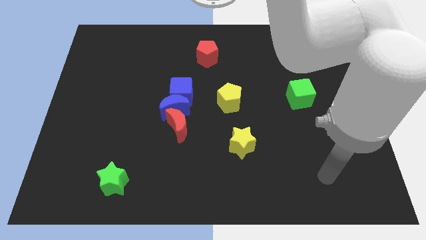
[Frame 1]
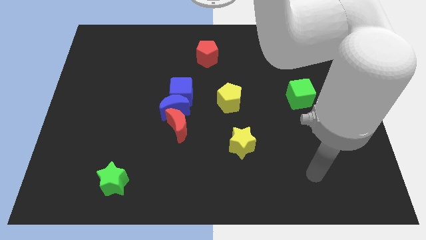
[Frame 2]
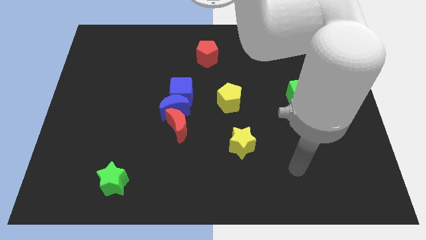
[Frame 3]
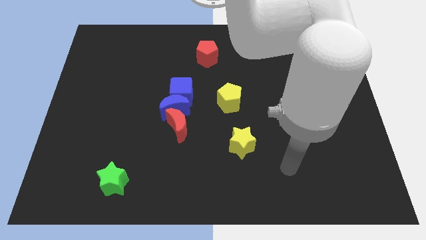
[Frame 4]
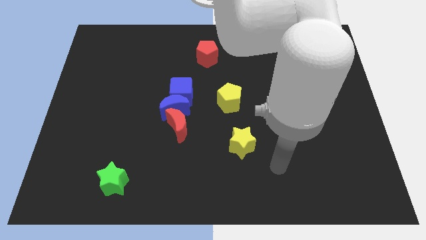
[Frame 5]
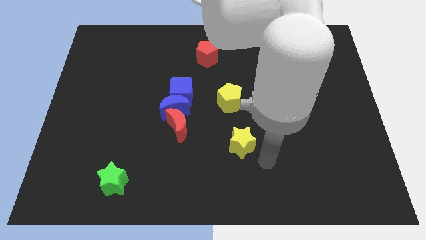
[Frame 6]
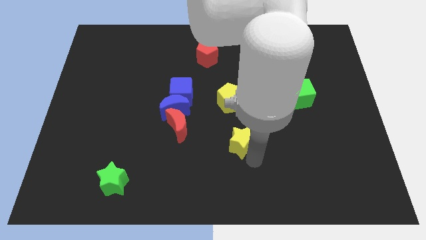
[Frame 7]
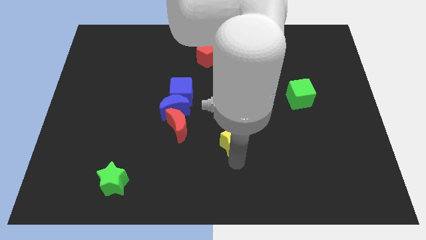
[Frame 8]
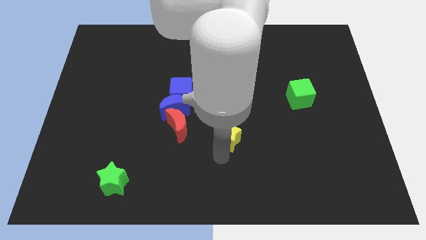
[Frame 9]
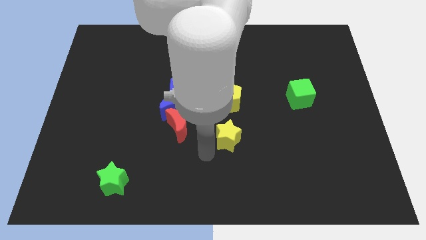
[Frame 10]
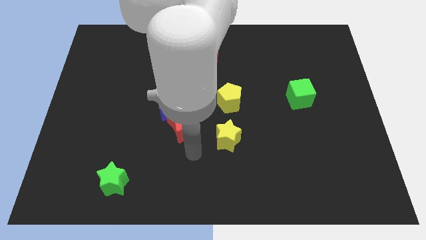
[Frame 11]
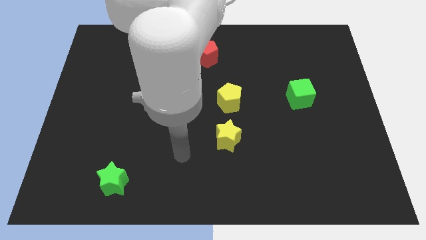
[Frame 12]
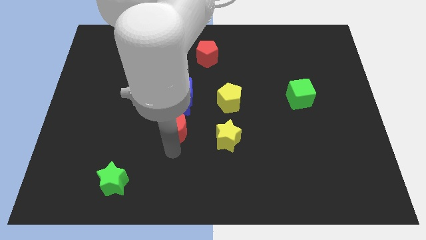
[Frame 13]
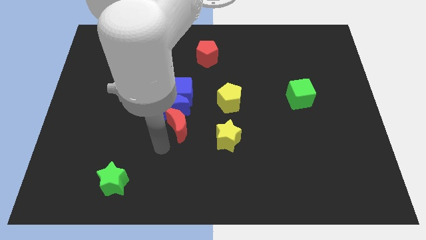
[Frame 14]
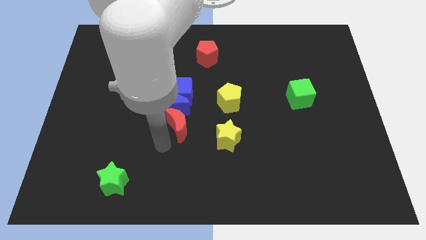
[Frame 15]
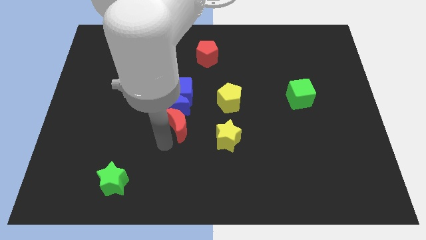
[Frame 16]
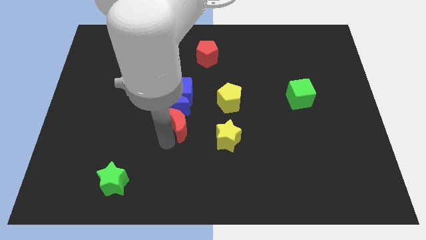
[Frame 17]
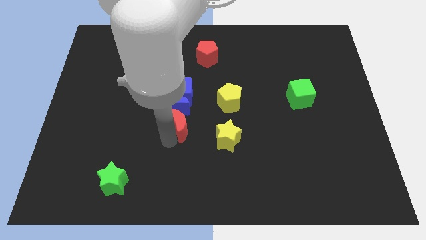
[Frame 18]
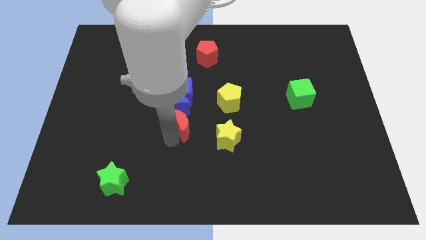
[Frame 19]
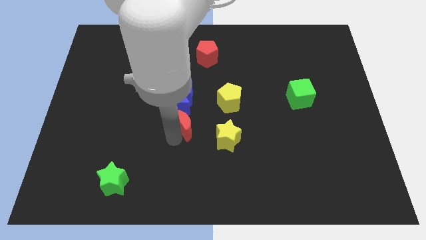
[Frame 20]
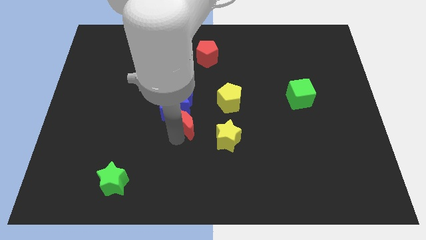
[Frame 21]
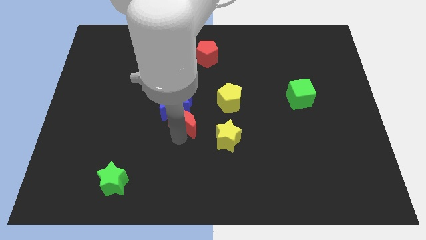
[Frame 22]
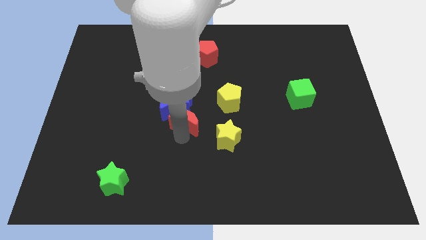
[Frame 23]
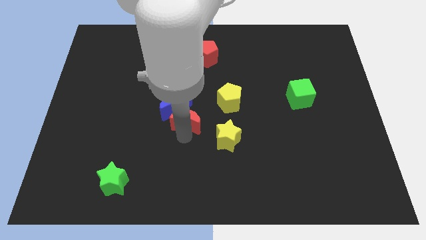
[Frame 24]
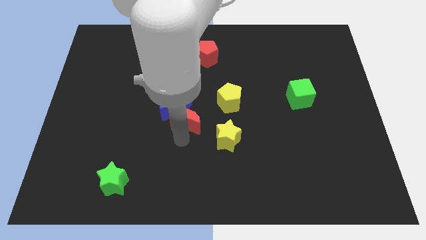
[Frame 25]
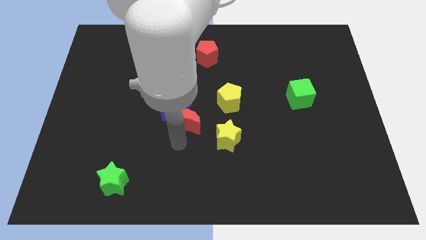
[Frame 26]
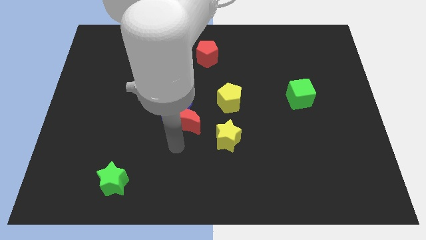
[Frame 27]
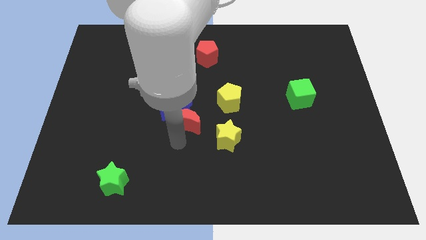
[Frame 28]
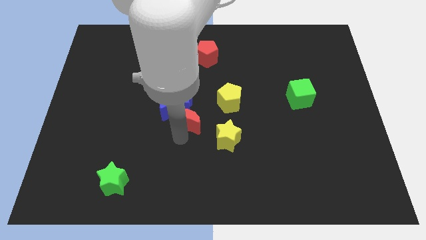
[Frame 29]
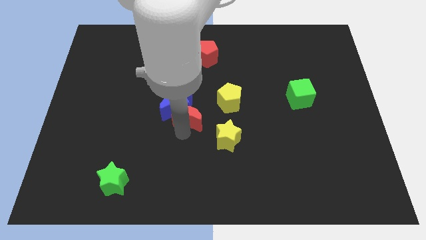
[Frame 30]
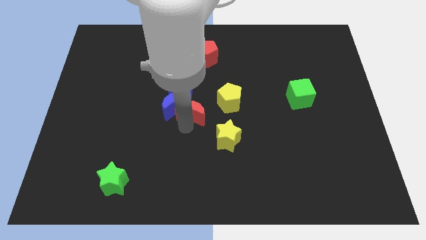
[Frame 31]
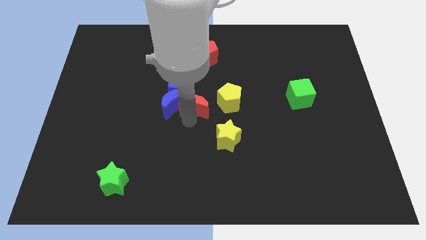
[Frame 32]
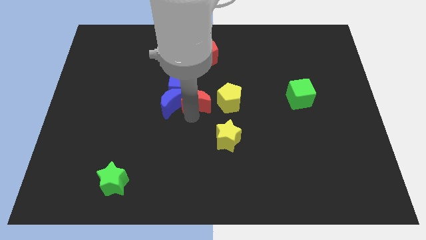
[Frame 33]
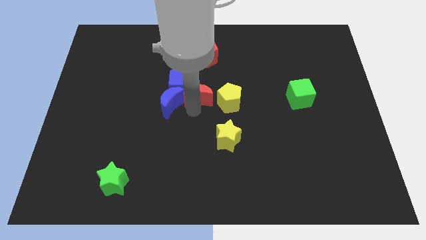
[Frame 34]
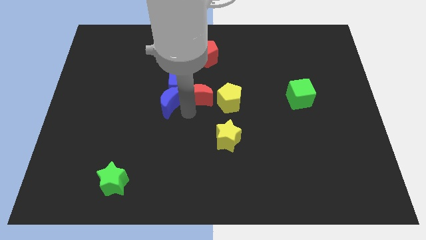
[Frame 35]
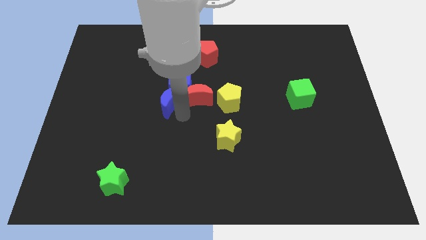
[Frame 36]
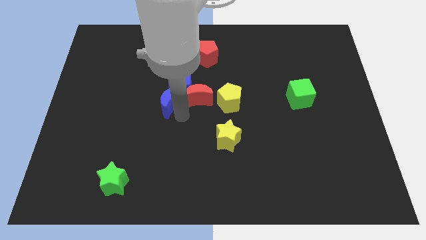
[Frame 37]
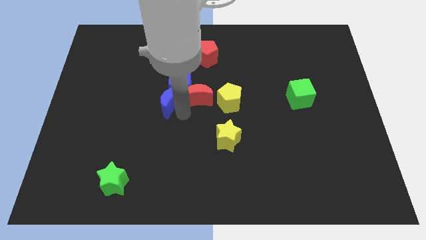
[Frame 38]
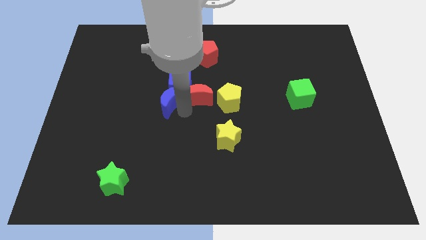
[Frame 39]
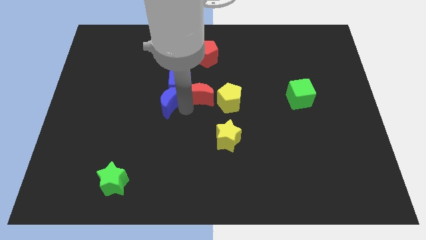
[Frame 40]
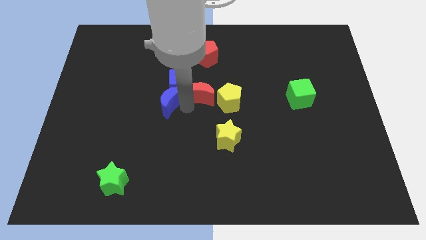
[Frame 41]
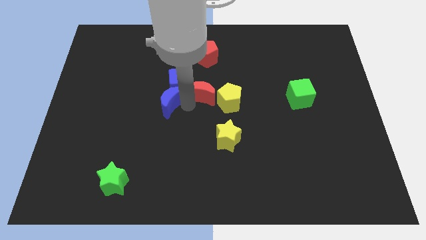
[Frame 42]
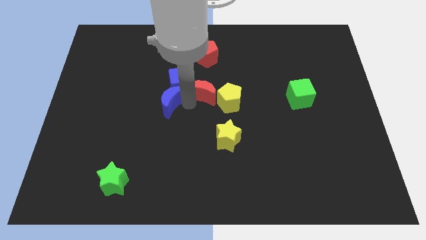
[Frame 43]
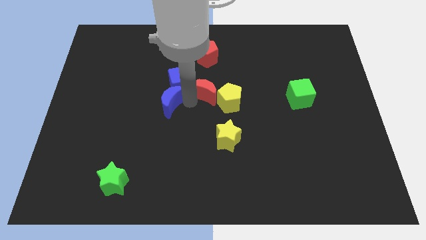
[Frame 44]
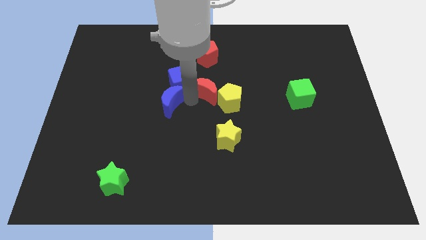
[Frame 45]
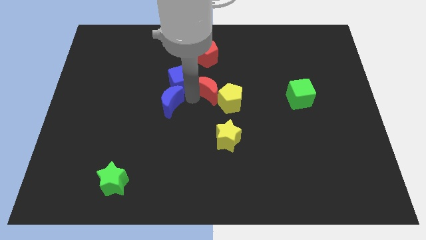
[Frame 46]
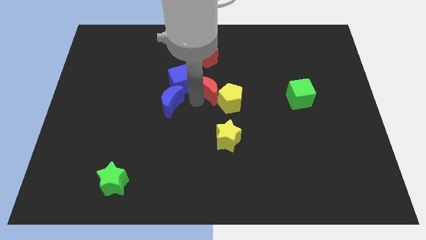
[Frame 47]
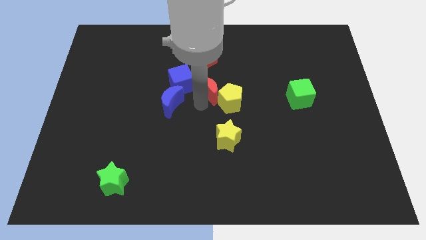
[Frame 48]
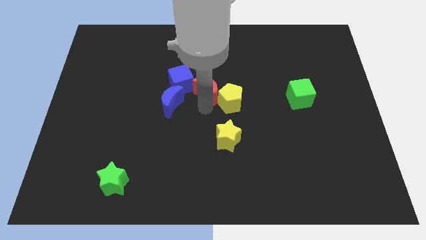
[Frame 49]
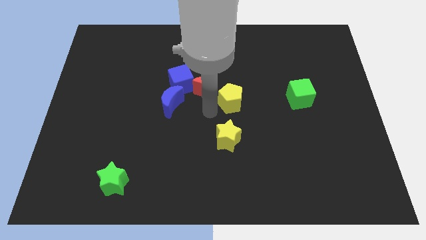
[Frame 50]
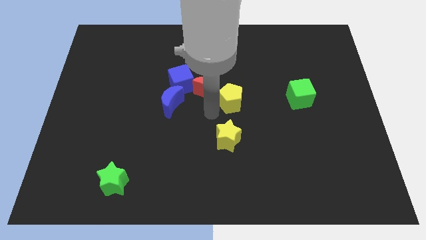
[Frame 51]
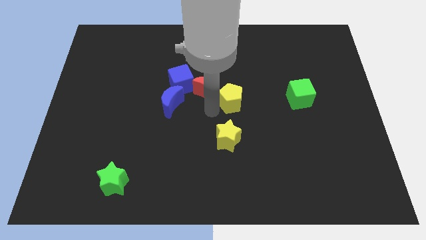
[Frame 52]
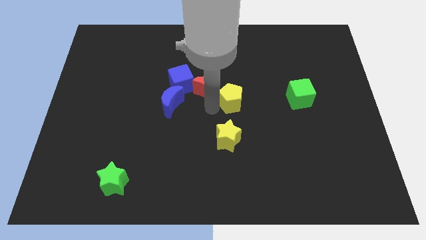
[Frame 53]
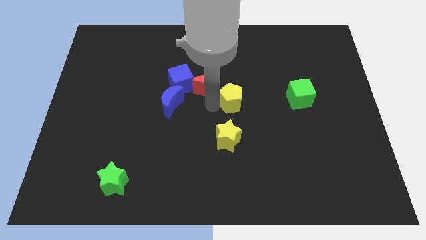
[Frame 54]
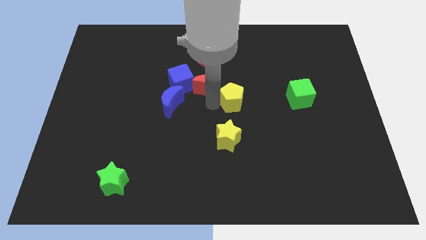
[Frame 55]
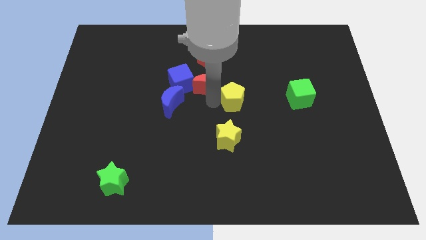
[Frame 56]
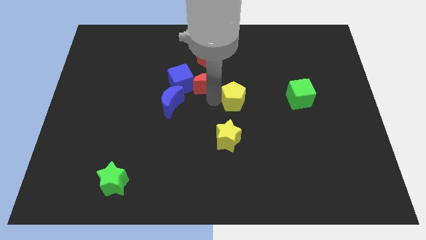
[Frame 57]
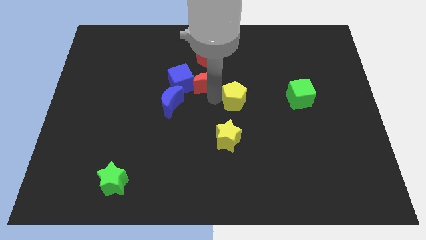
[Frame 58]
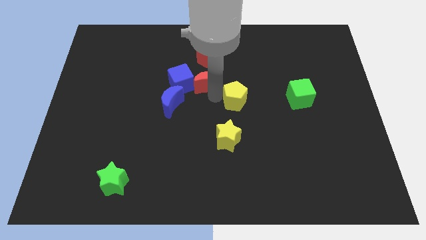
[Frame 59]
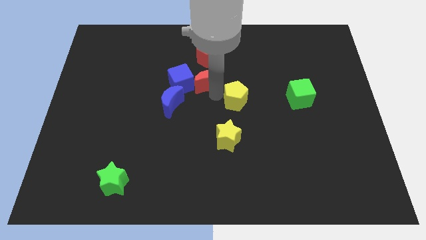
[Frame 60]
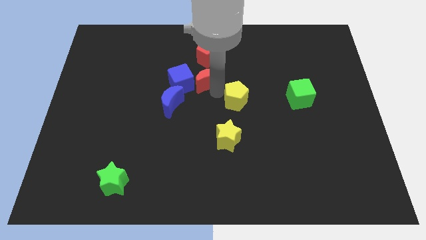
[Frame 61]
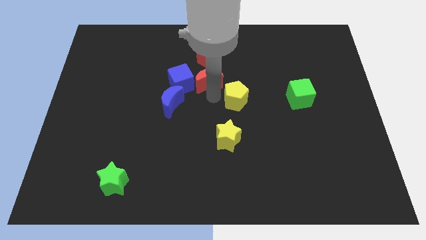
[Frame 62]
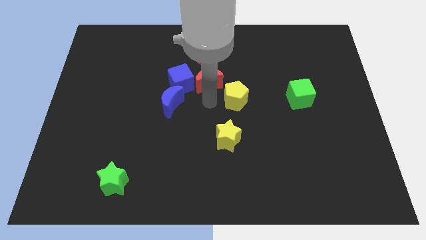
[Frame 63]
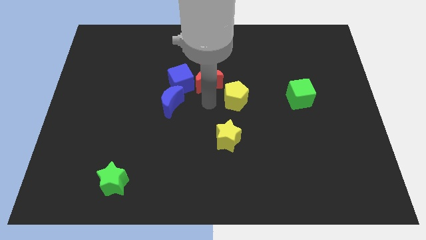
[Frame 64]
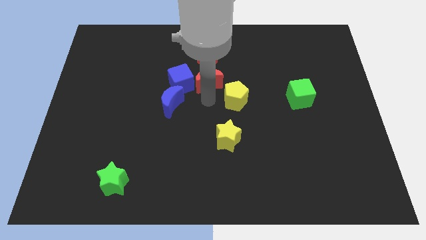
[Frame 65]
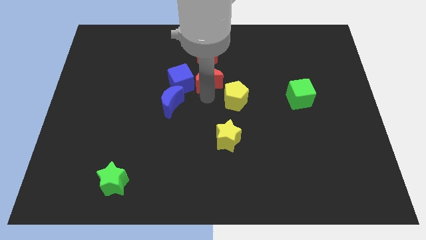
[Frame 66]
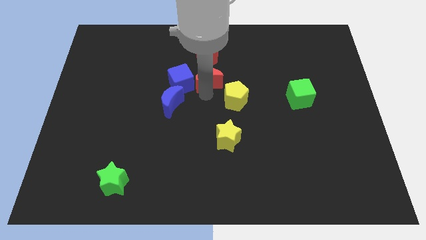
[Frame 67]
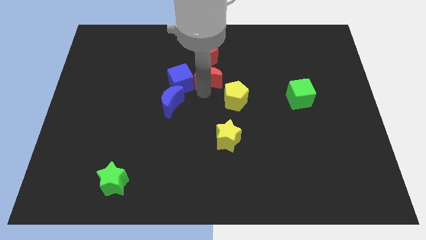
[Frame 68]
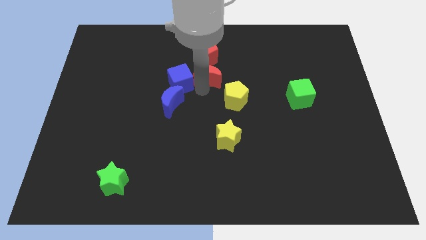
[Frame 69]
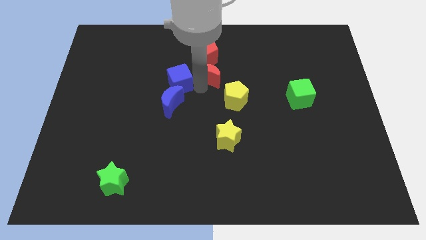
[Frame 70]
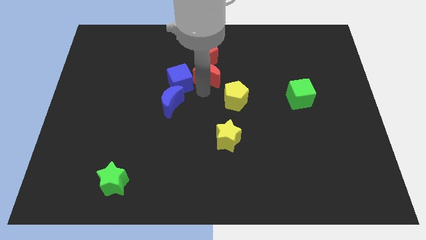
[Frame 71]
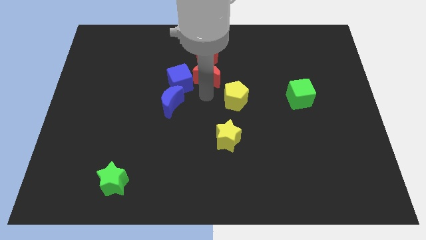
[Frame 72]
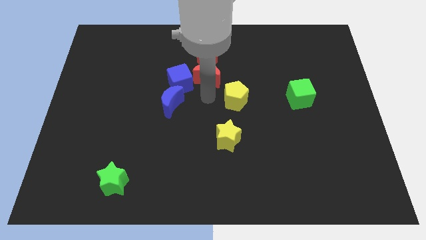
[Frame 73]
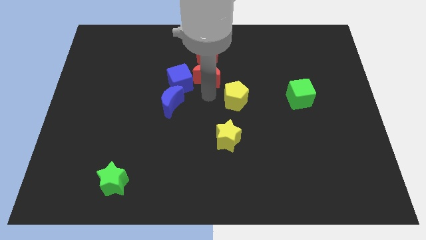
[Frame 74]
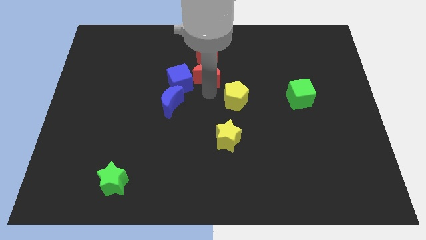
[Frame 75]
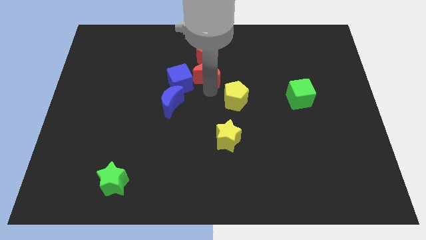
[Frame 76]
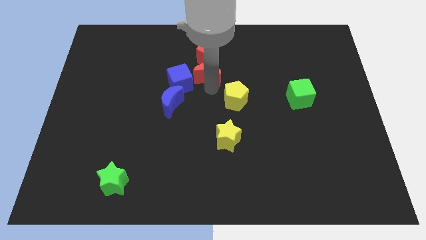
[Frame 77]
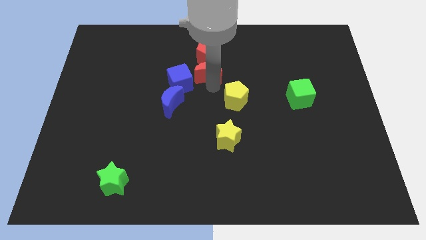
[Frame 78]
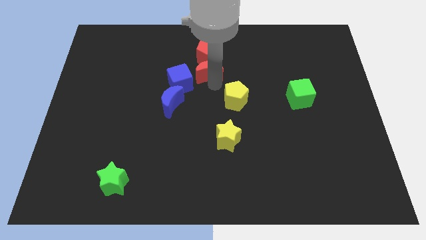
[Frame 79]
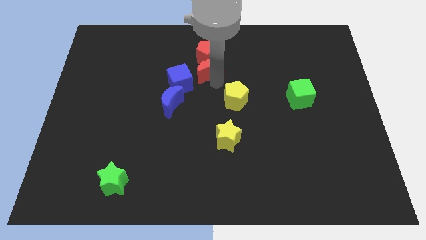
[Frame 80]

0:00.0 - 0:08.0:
move the red moon next to the red pentagon
